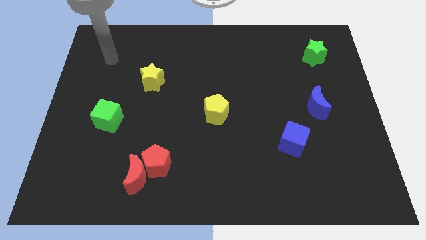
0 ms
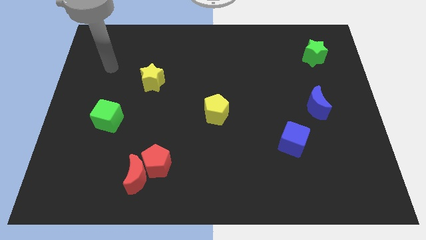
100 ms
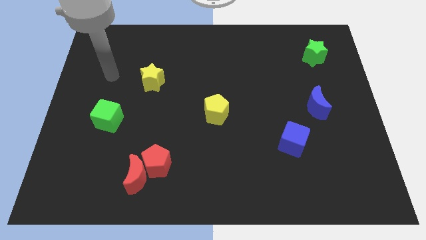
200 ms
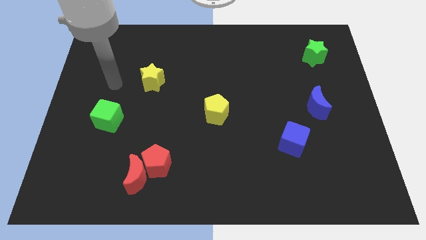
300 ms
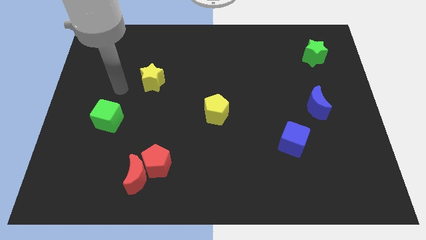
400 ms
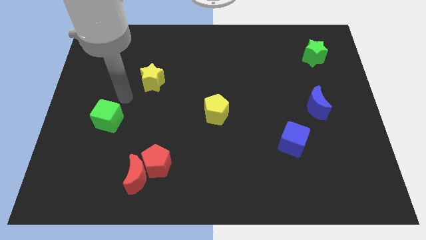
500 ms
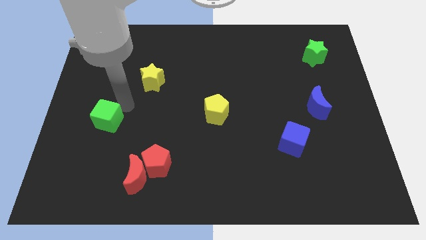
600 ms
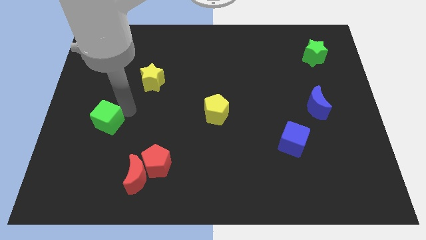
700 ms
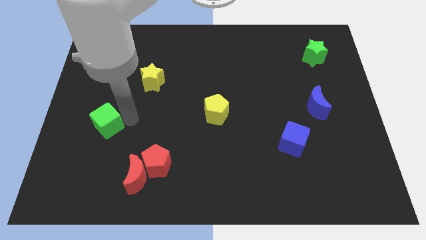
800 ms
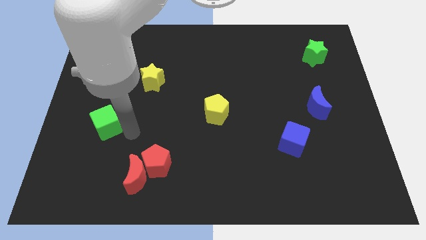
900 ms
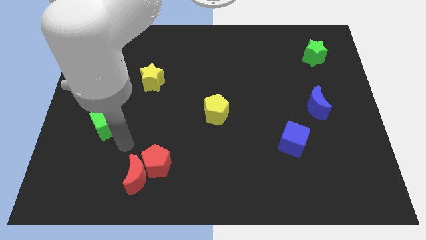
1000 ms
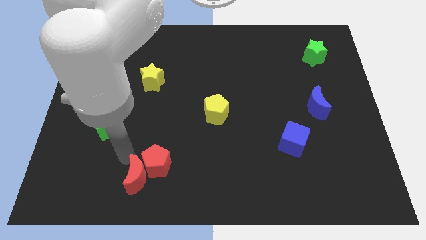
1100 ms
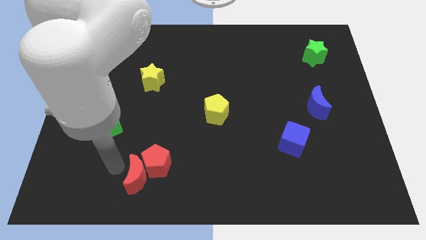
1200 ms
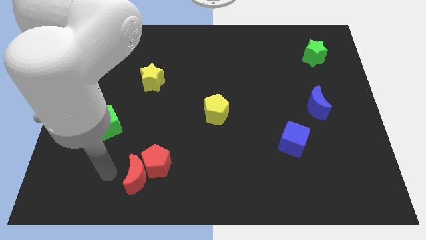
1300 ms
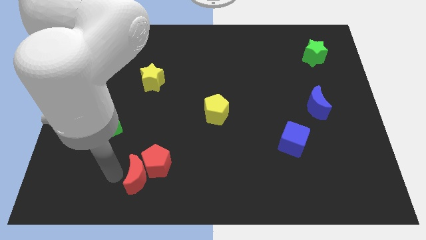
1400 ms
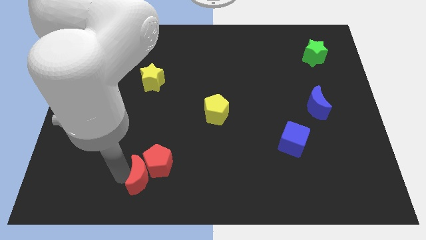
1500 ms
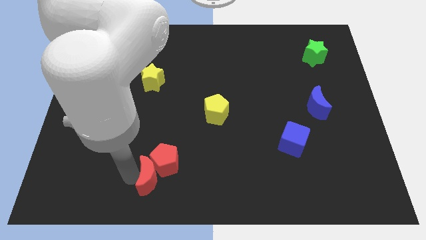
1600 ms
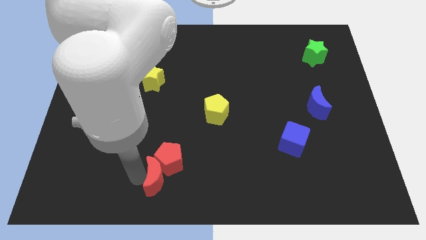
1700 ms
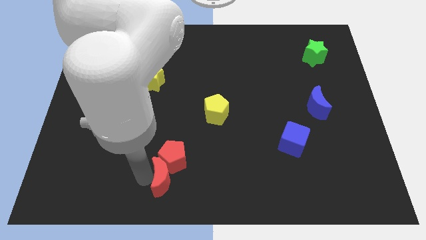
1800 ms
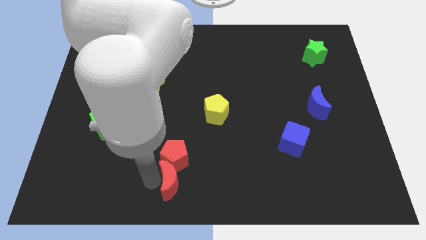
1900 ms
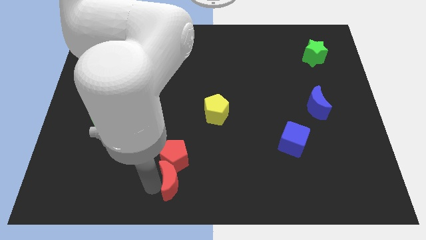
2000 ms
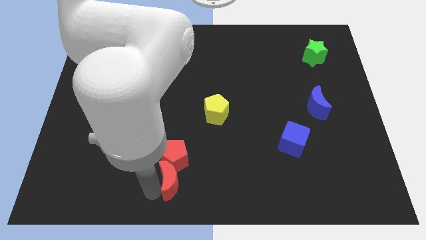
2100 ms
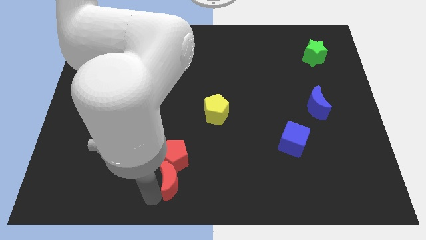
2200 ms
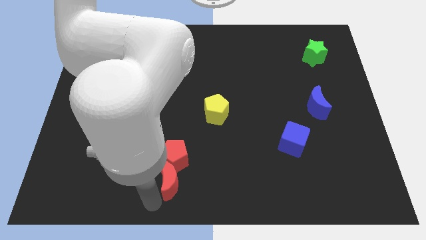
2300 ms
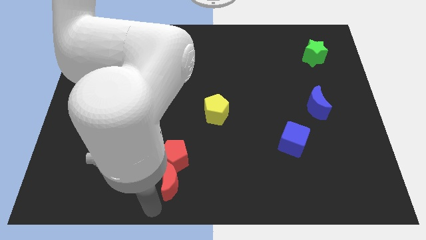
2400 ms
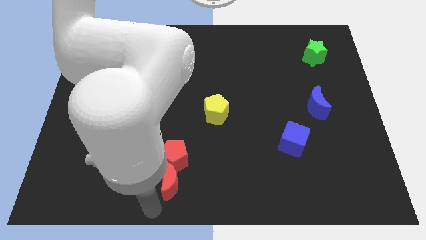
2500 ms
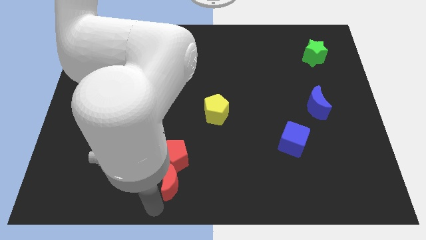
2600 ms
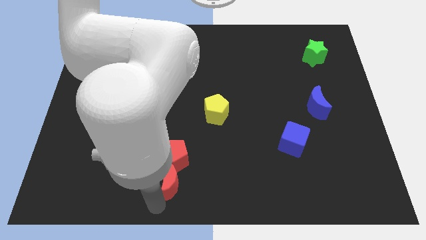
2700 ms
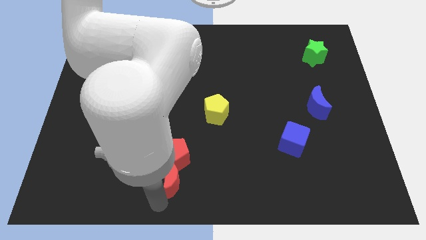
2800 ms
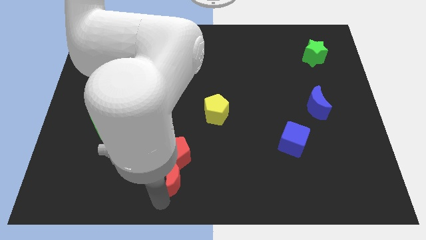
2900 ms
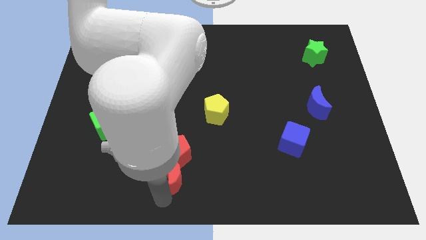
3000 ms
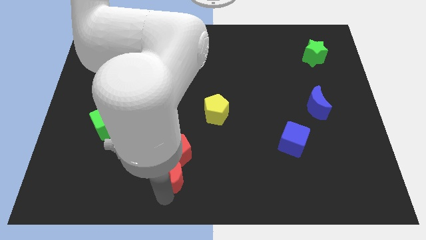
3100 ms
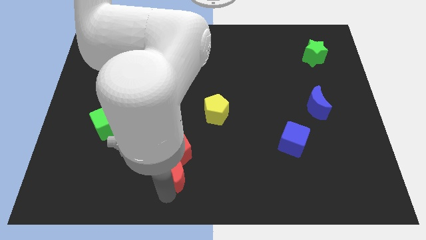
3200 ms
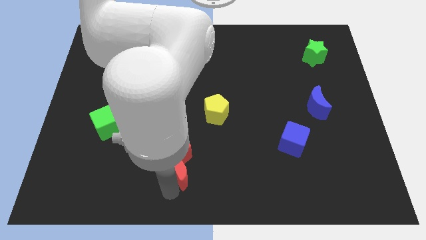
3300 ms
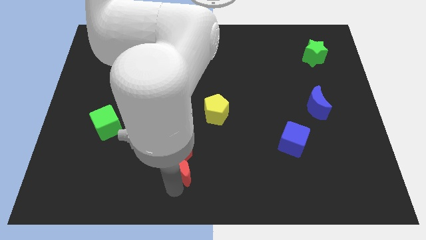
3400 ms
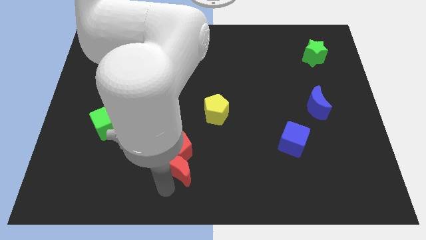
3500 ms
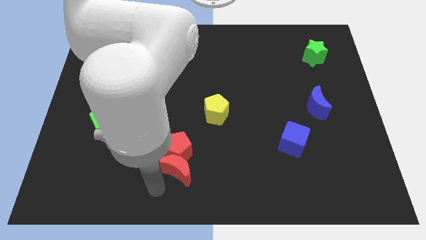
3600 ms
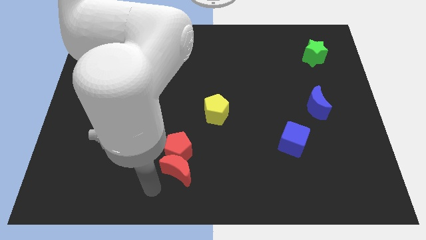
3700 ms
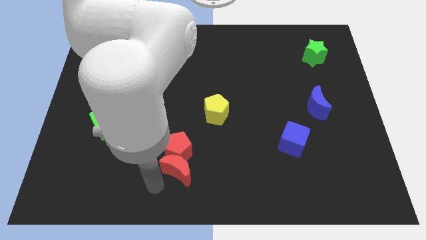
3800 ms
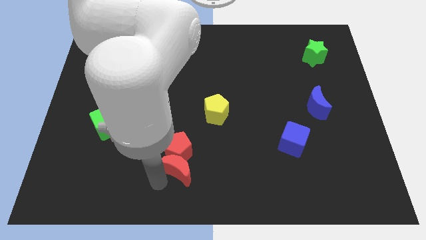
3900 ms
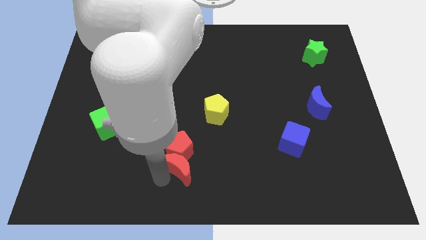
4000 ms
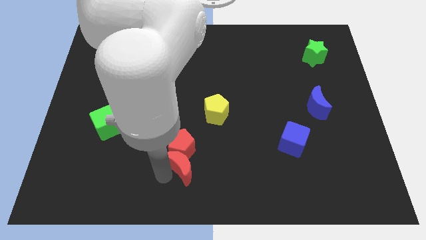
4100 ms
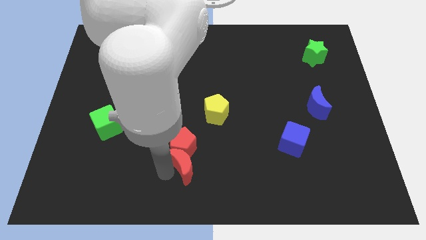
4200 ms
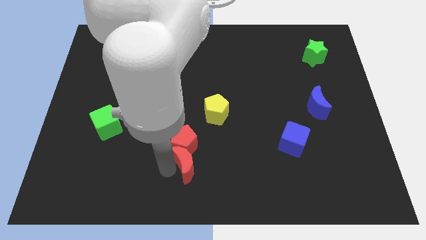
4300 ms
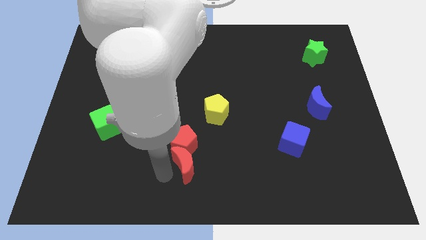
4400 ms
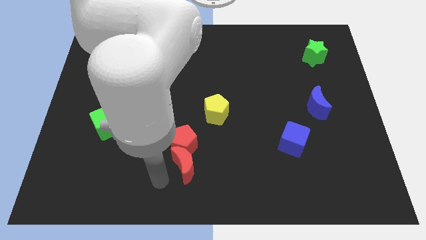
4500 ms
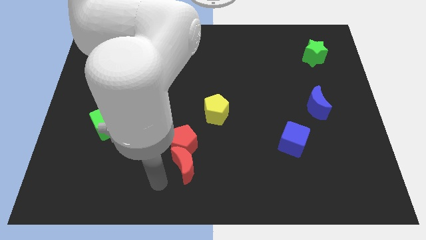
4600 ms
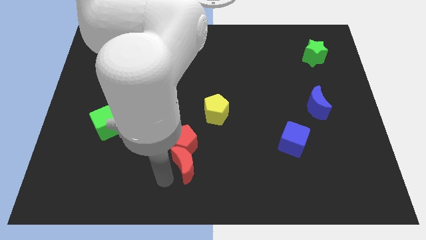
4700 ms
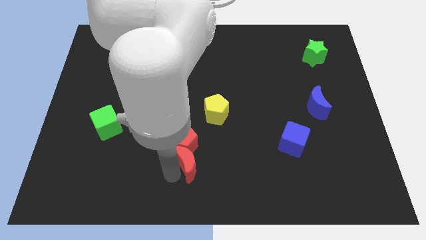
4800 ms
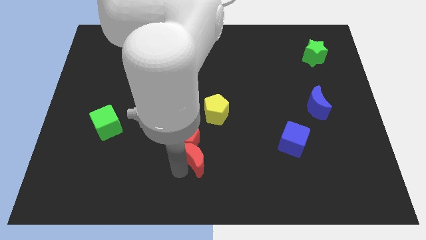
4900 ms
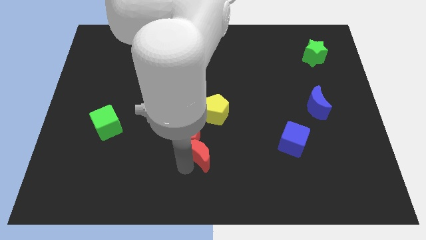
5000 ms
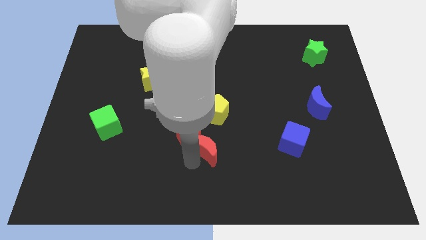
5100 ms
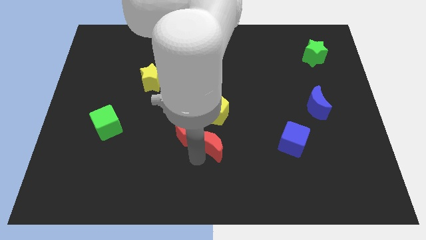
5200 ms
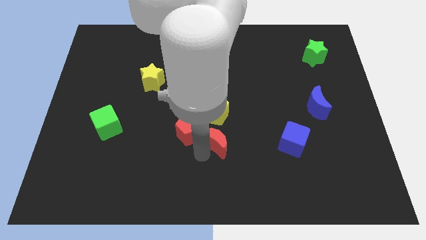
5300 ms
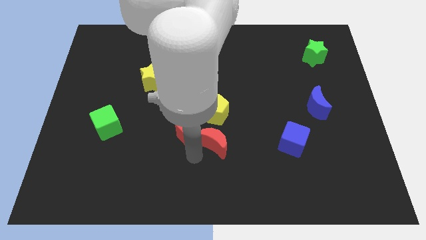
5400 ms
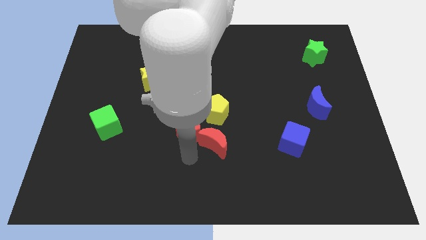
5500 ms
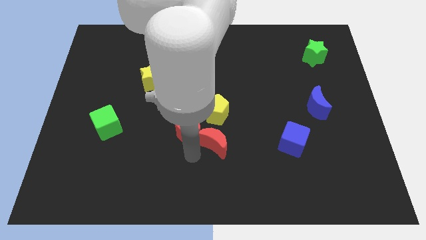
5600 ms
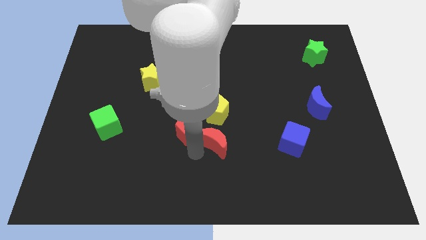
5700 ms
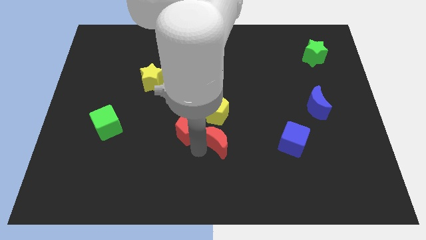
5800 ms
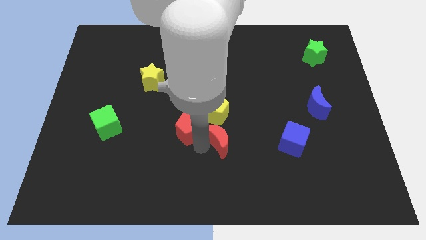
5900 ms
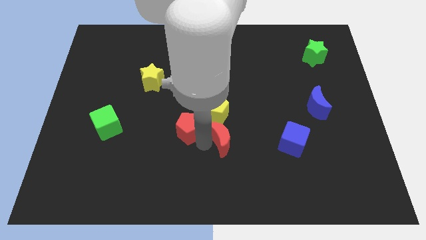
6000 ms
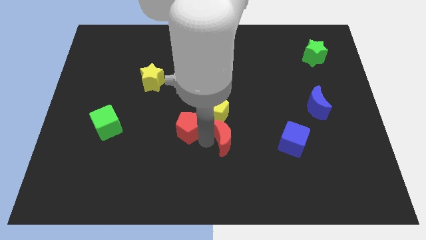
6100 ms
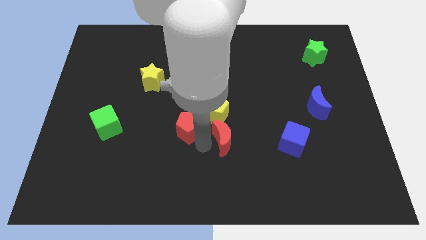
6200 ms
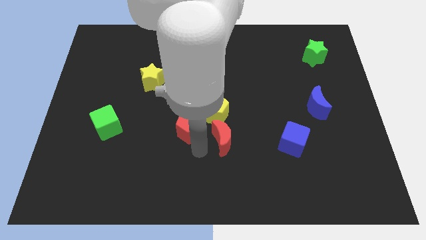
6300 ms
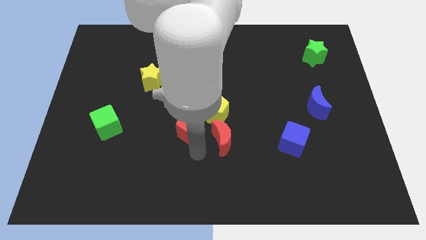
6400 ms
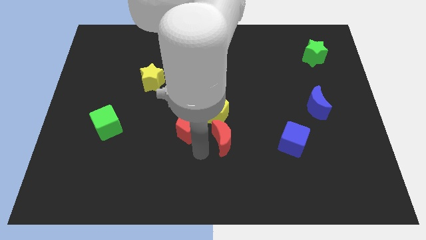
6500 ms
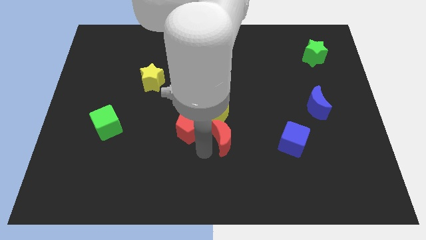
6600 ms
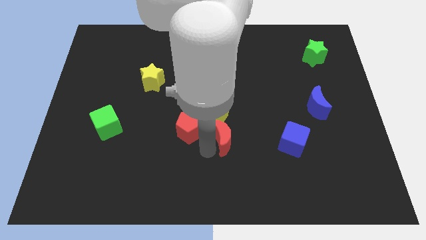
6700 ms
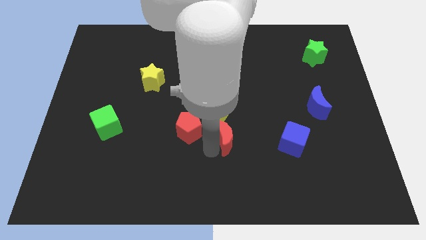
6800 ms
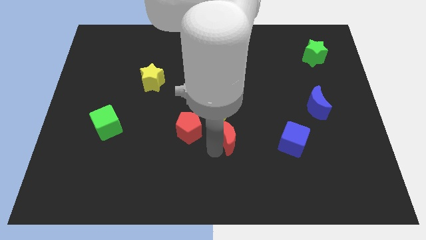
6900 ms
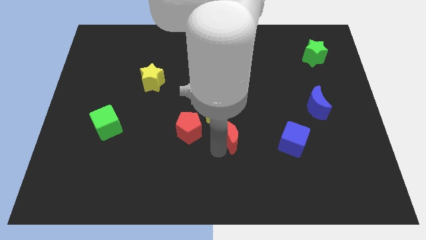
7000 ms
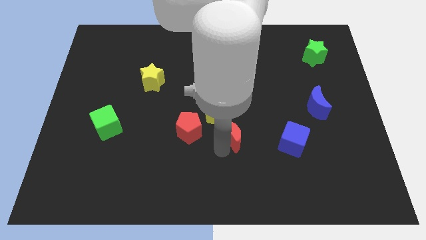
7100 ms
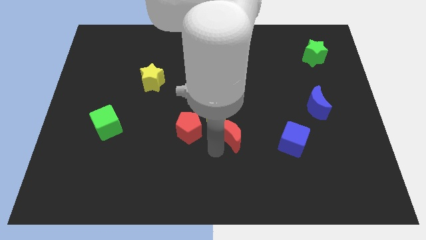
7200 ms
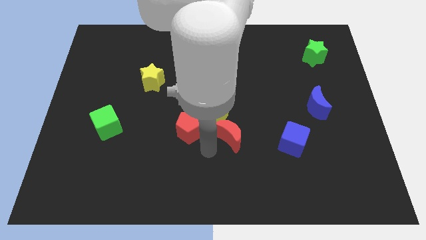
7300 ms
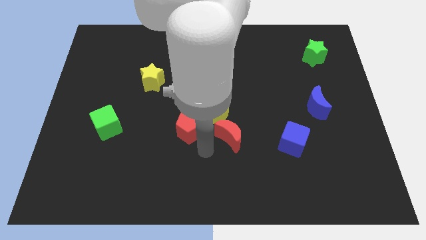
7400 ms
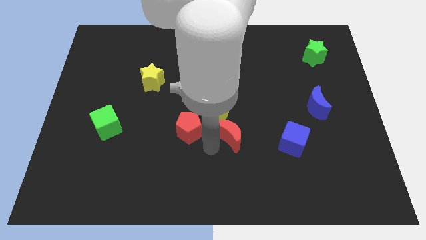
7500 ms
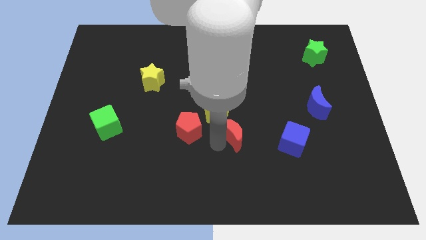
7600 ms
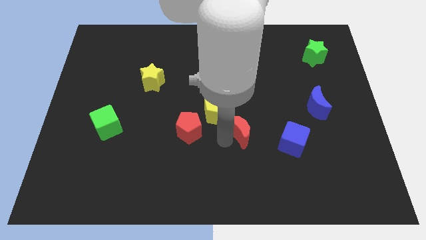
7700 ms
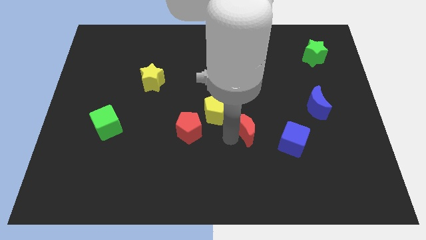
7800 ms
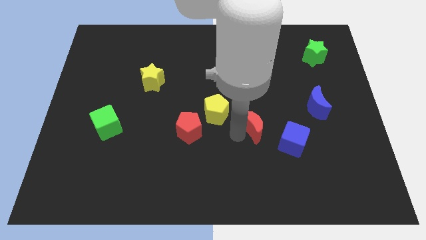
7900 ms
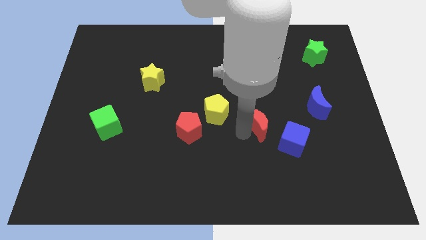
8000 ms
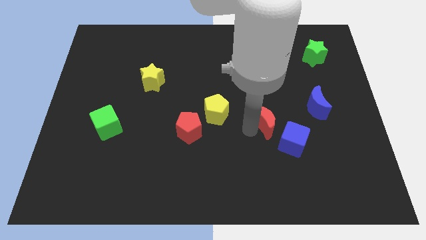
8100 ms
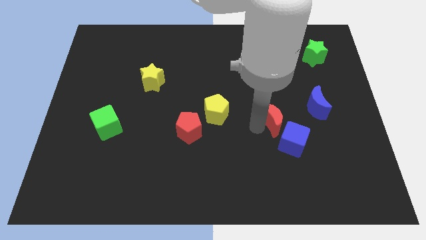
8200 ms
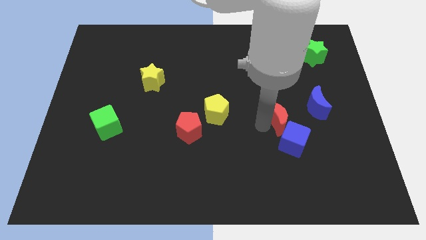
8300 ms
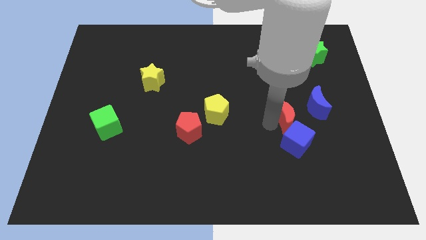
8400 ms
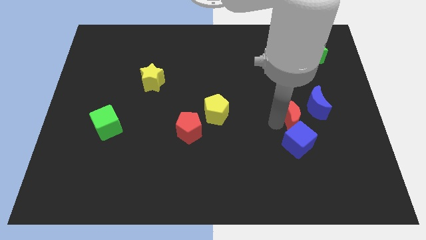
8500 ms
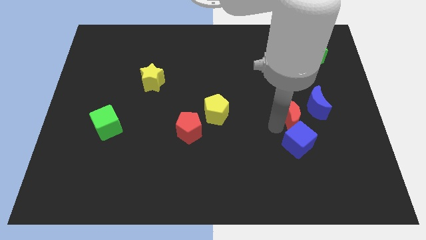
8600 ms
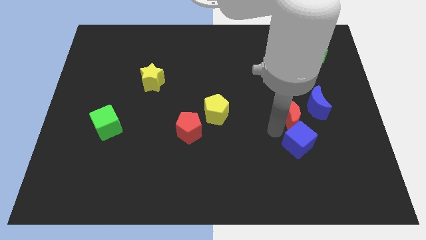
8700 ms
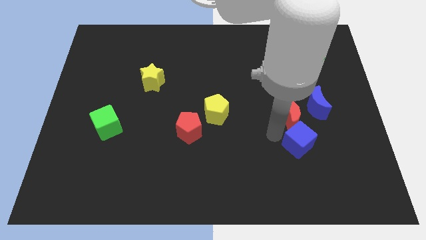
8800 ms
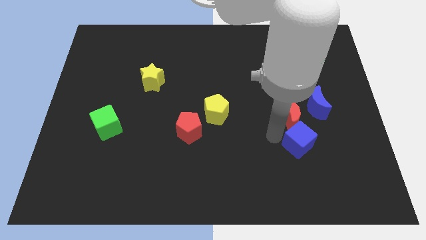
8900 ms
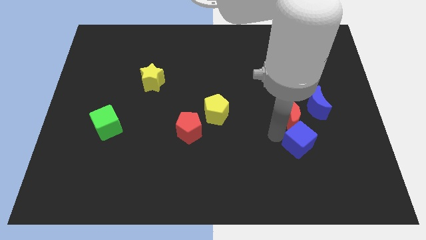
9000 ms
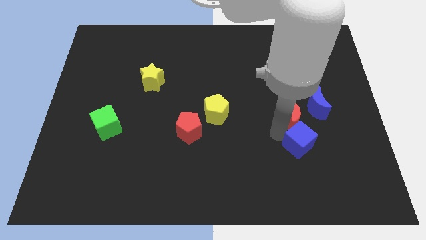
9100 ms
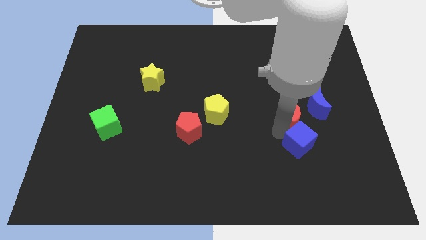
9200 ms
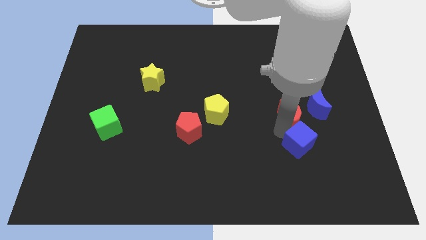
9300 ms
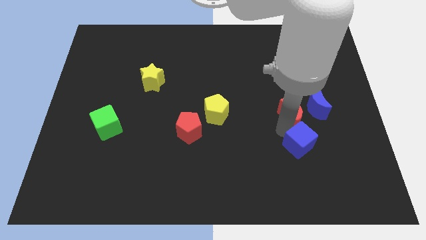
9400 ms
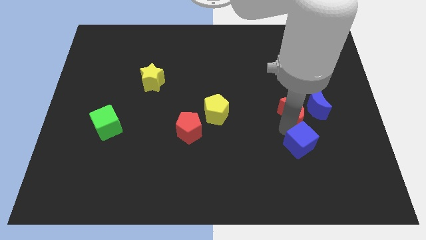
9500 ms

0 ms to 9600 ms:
push the red moon towards the blue moon
